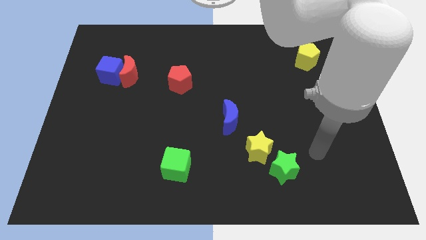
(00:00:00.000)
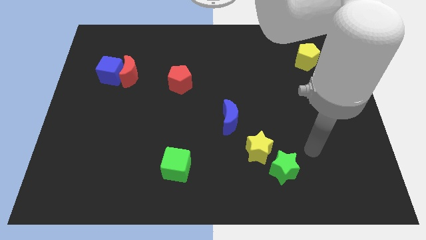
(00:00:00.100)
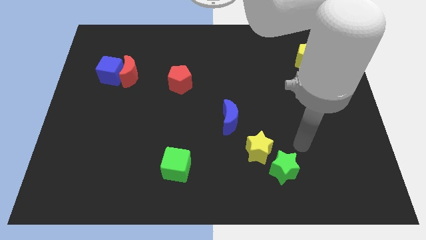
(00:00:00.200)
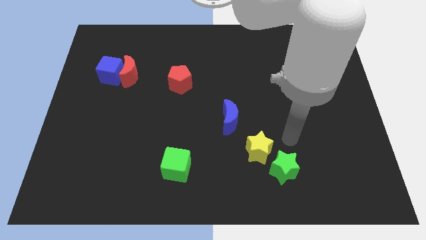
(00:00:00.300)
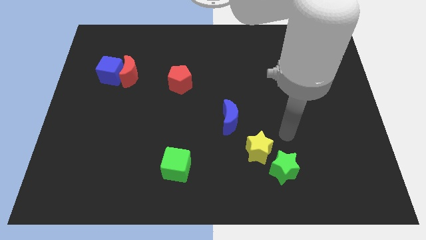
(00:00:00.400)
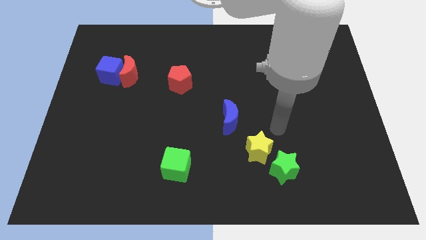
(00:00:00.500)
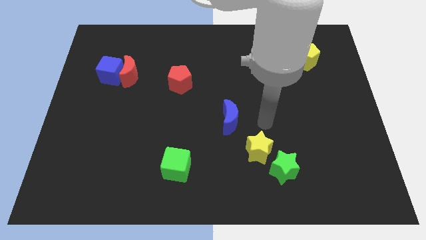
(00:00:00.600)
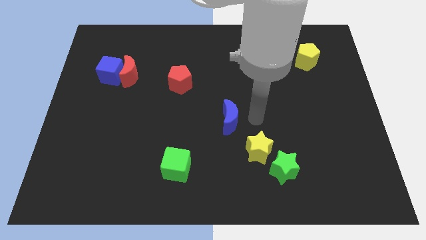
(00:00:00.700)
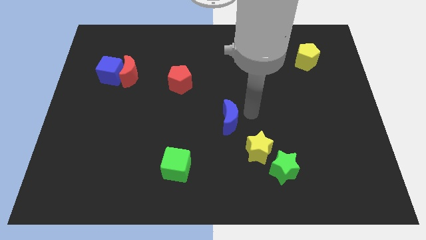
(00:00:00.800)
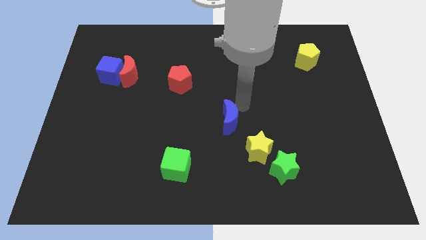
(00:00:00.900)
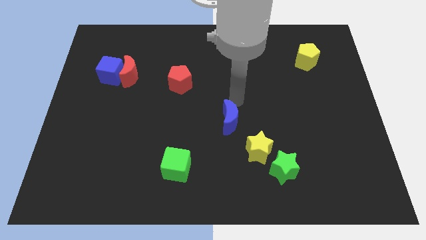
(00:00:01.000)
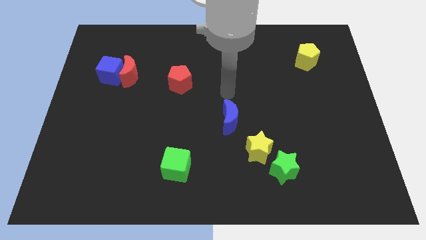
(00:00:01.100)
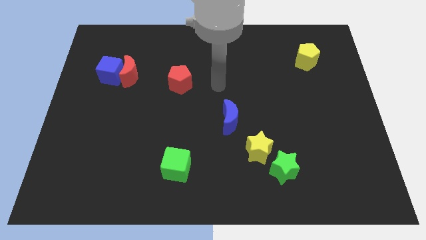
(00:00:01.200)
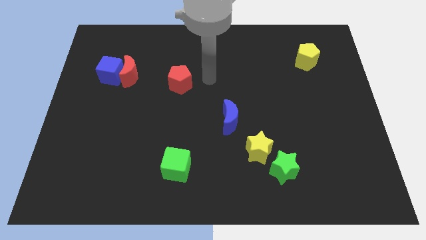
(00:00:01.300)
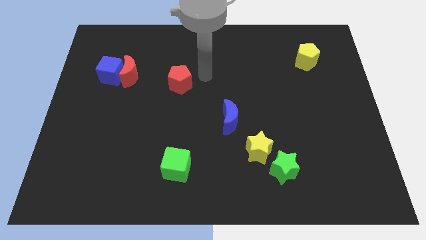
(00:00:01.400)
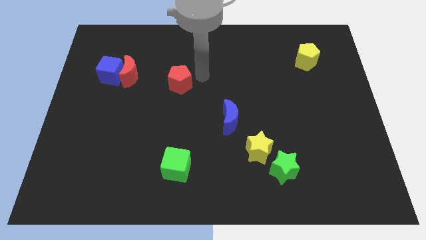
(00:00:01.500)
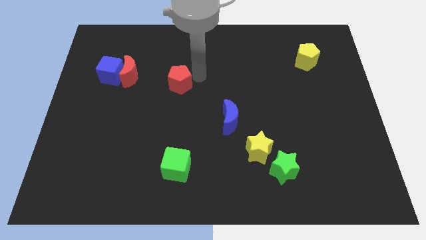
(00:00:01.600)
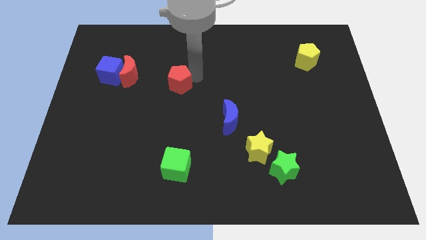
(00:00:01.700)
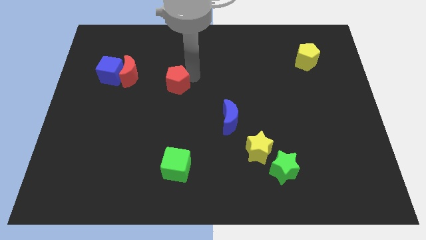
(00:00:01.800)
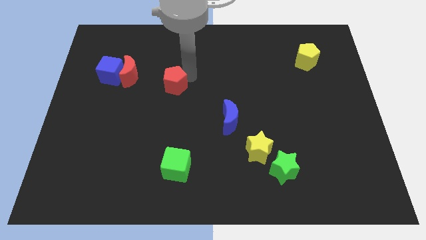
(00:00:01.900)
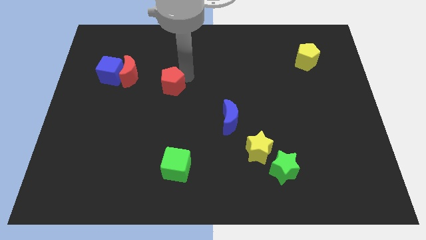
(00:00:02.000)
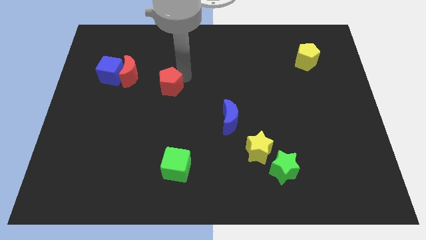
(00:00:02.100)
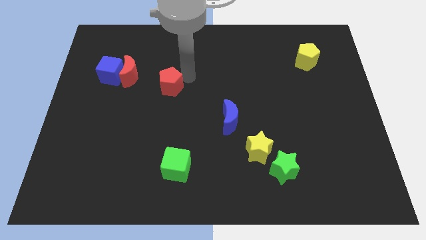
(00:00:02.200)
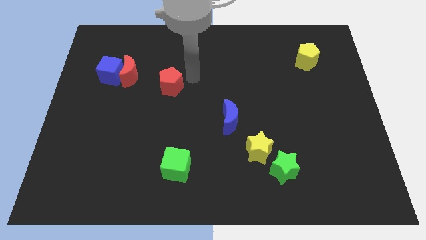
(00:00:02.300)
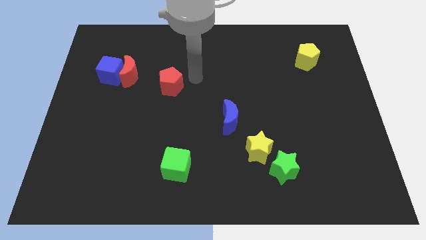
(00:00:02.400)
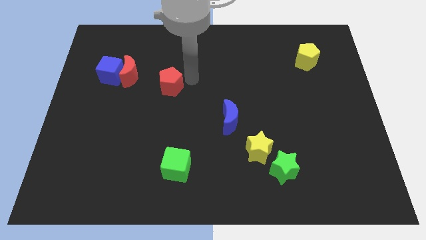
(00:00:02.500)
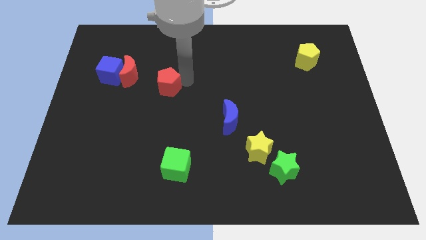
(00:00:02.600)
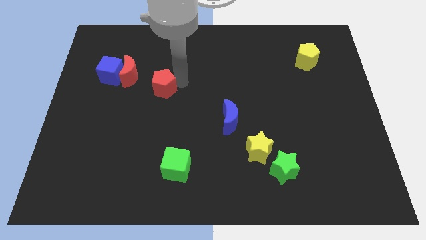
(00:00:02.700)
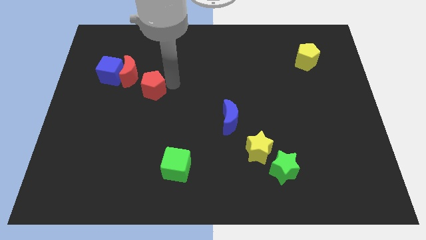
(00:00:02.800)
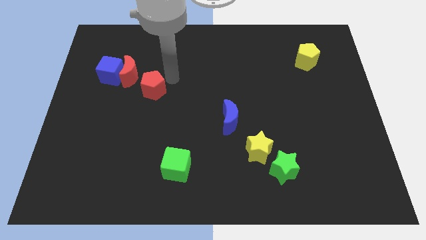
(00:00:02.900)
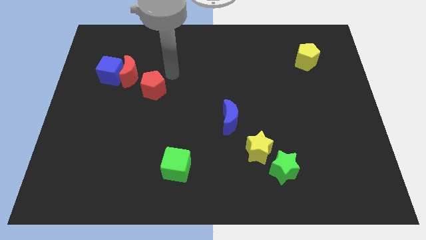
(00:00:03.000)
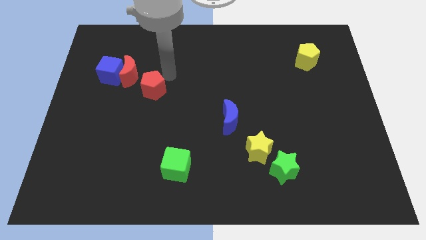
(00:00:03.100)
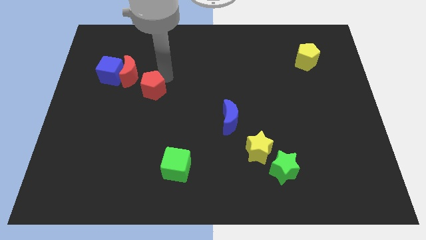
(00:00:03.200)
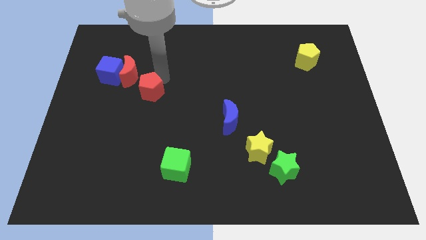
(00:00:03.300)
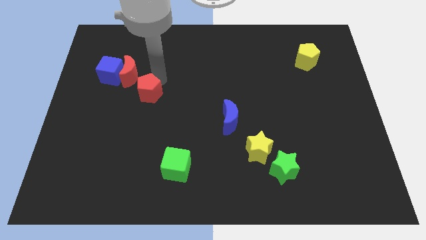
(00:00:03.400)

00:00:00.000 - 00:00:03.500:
slide the red pentagon slightly diagonally down and left

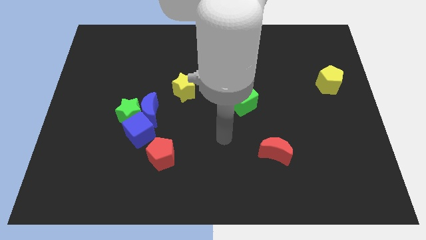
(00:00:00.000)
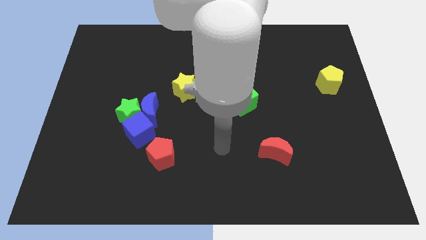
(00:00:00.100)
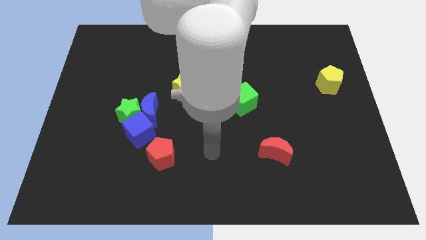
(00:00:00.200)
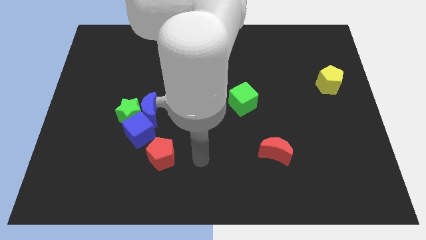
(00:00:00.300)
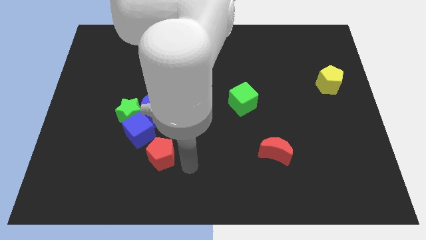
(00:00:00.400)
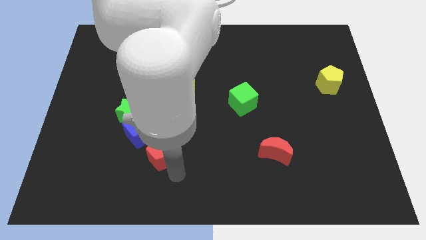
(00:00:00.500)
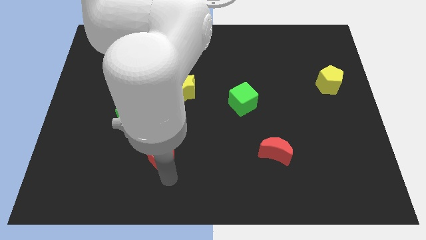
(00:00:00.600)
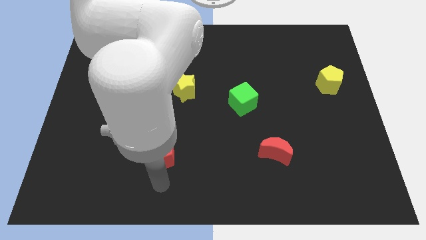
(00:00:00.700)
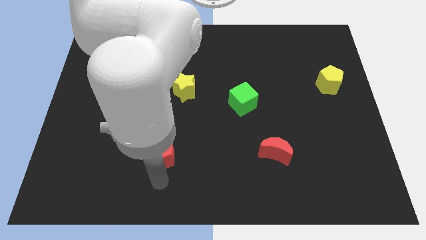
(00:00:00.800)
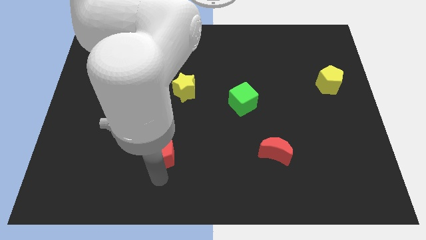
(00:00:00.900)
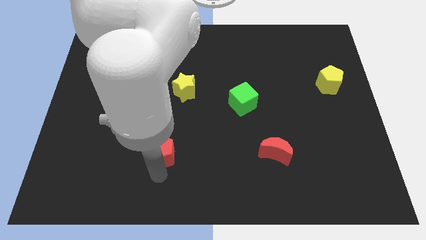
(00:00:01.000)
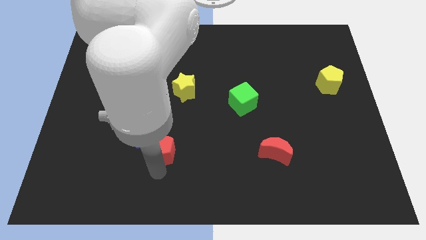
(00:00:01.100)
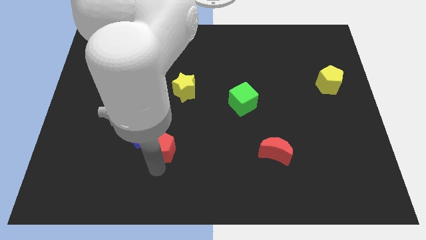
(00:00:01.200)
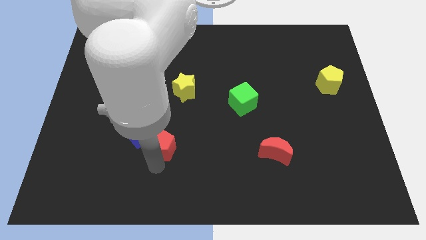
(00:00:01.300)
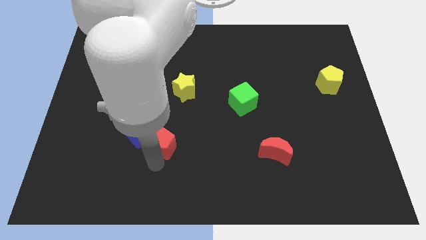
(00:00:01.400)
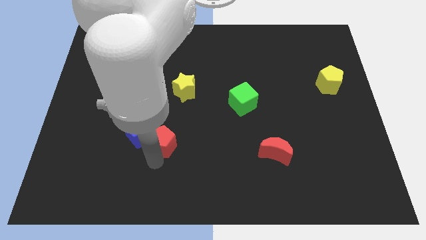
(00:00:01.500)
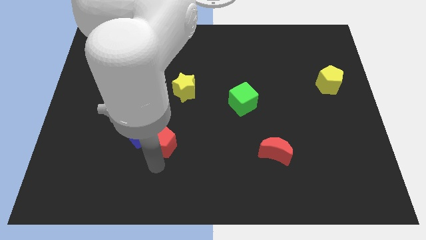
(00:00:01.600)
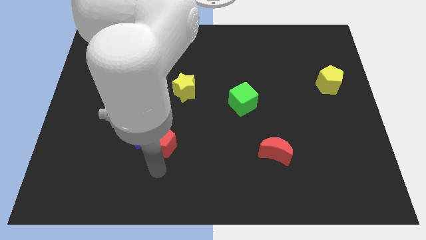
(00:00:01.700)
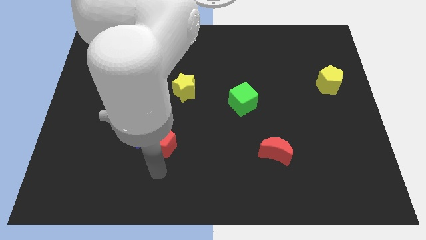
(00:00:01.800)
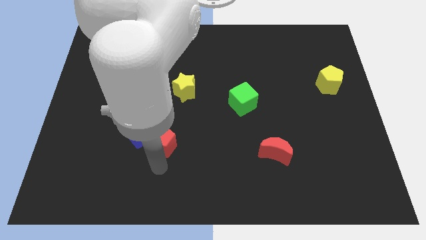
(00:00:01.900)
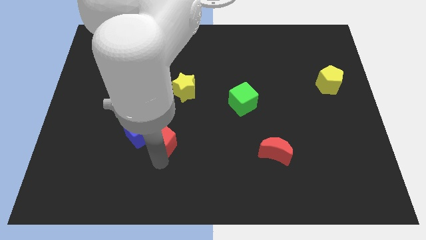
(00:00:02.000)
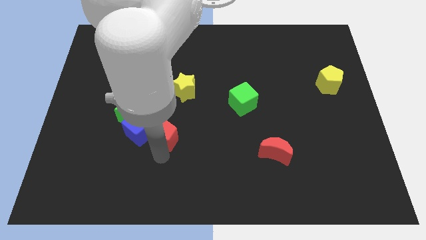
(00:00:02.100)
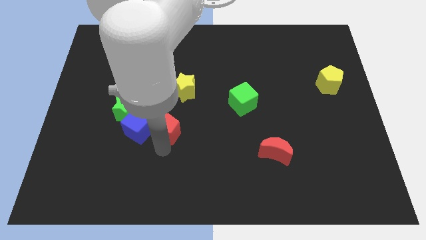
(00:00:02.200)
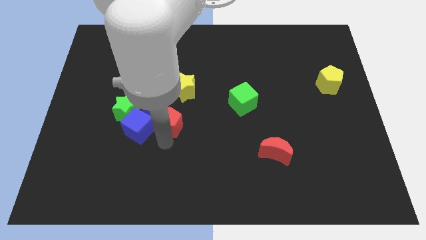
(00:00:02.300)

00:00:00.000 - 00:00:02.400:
slightly push the red pentagon upwards

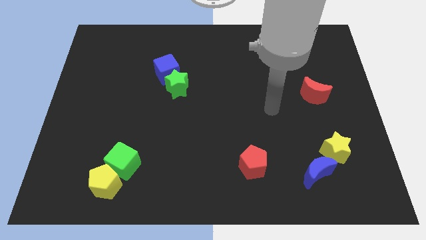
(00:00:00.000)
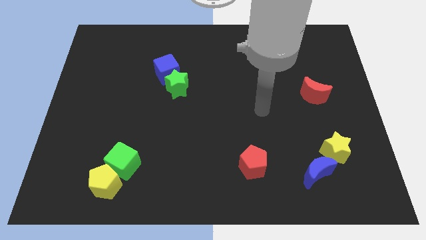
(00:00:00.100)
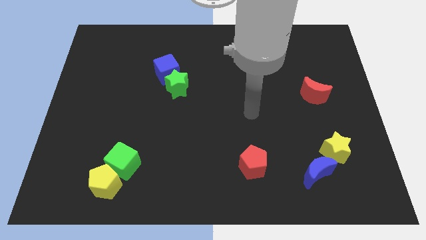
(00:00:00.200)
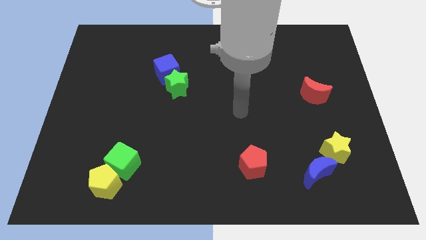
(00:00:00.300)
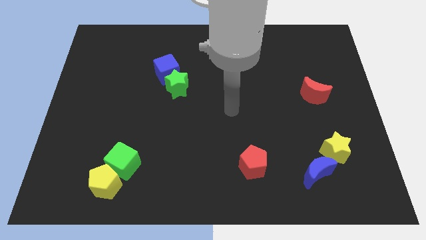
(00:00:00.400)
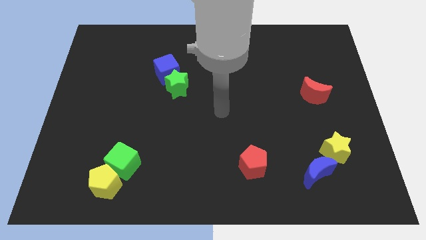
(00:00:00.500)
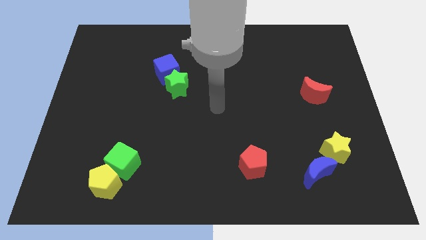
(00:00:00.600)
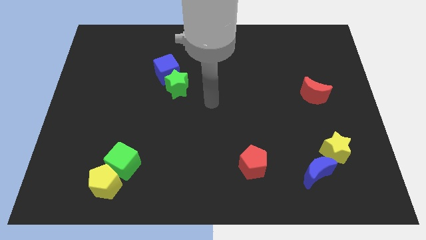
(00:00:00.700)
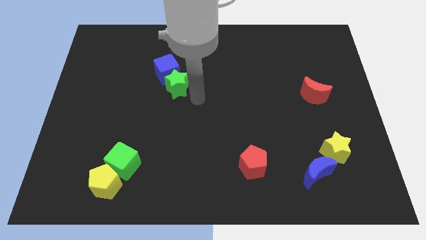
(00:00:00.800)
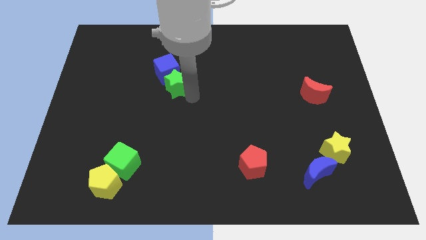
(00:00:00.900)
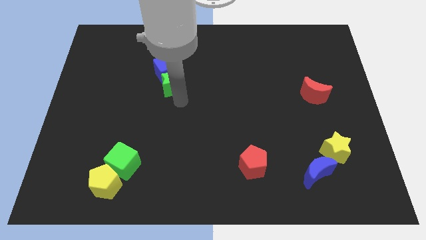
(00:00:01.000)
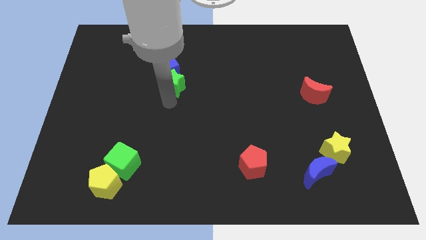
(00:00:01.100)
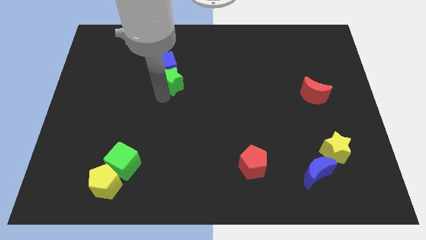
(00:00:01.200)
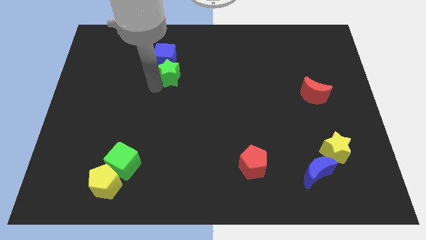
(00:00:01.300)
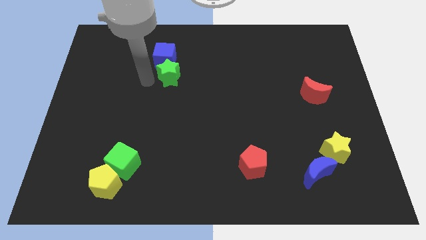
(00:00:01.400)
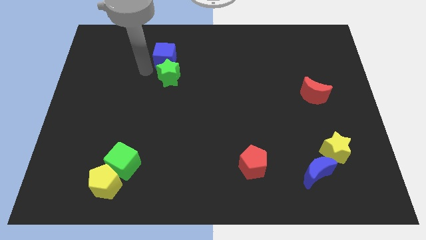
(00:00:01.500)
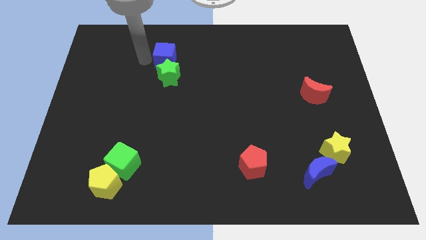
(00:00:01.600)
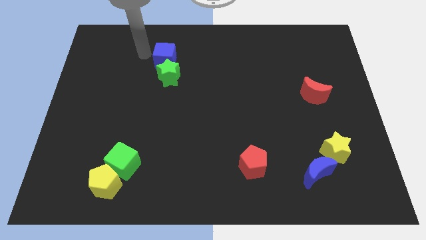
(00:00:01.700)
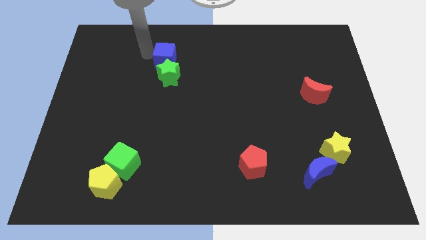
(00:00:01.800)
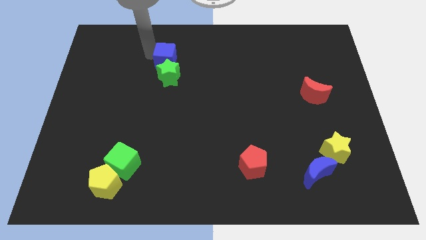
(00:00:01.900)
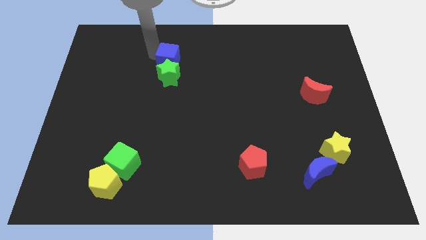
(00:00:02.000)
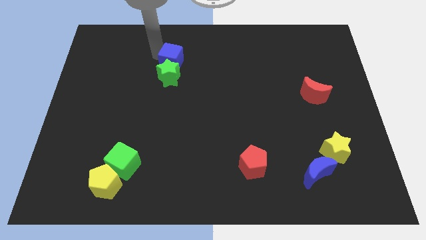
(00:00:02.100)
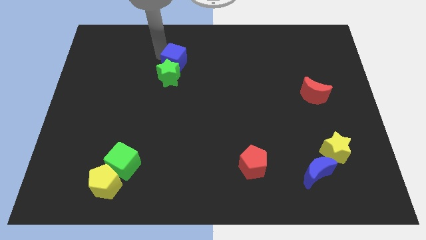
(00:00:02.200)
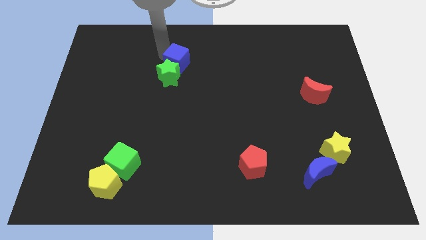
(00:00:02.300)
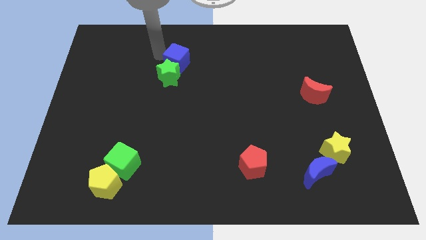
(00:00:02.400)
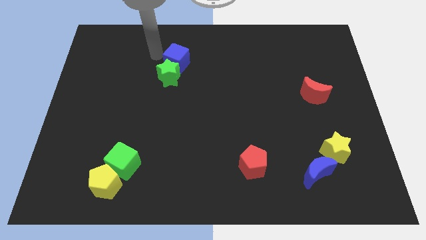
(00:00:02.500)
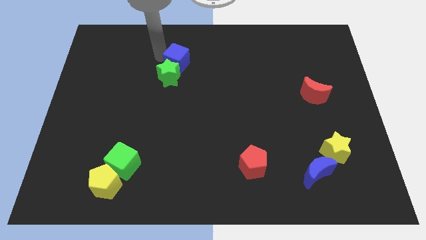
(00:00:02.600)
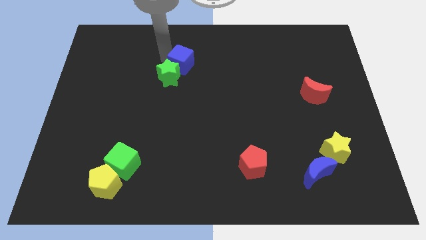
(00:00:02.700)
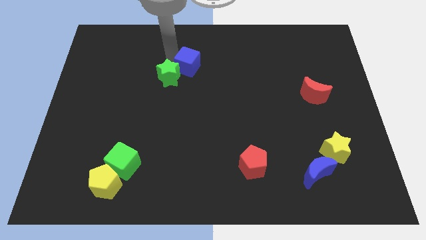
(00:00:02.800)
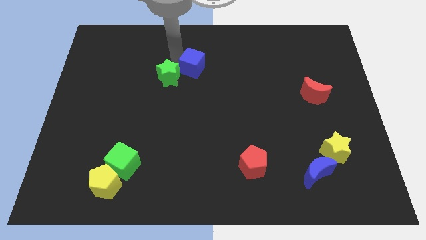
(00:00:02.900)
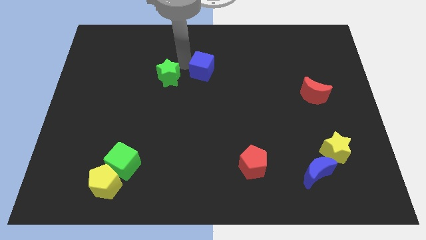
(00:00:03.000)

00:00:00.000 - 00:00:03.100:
push the blue cube right a little
